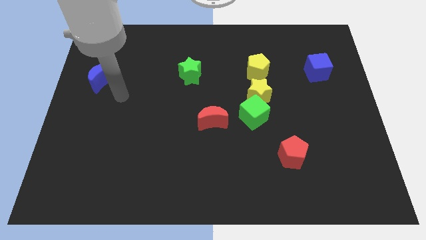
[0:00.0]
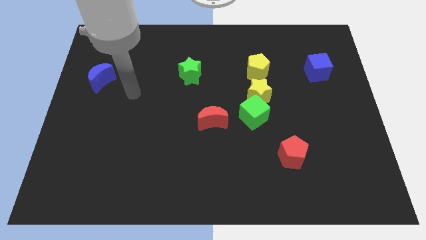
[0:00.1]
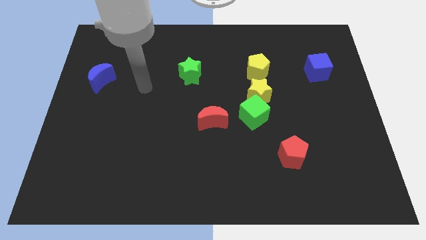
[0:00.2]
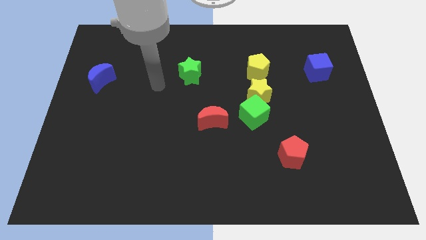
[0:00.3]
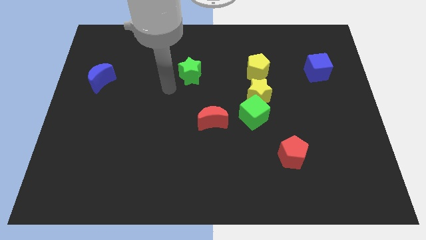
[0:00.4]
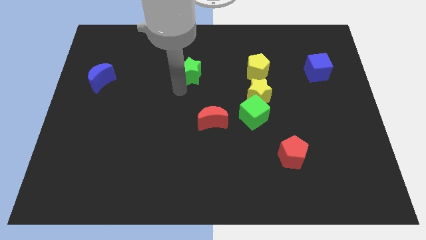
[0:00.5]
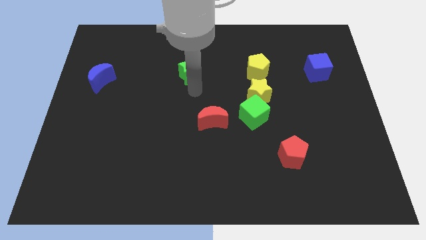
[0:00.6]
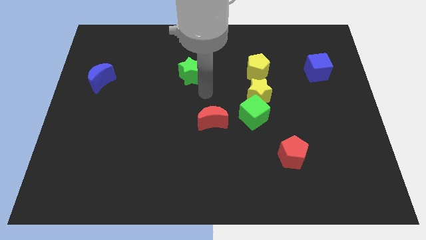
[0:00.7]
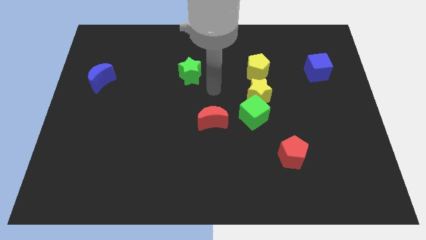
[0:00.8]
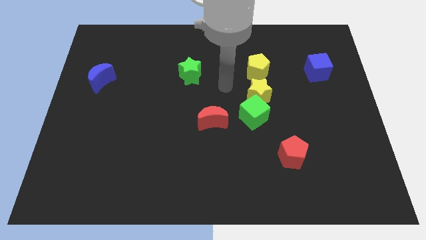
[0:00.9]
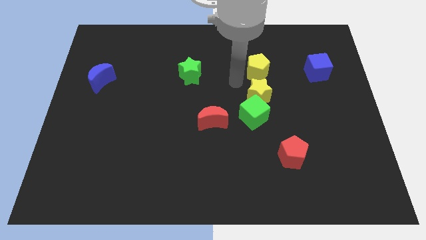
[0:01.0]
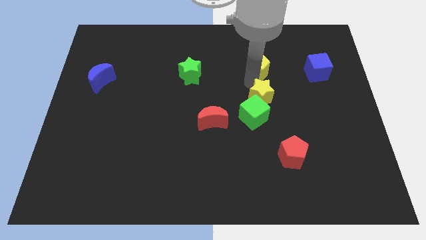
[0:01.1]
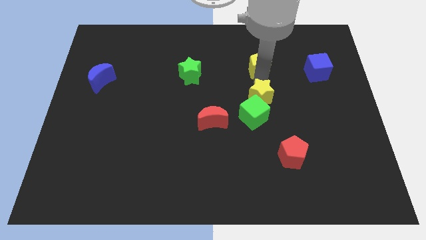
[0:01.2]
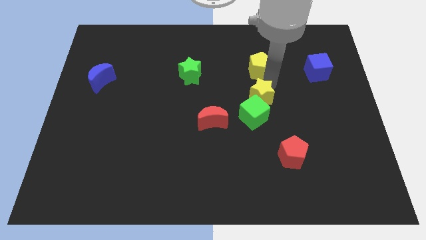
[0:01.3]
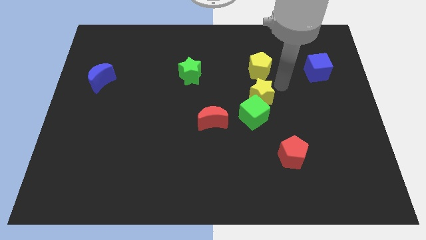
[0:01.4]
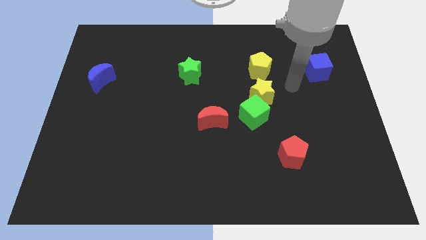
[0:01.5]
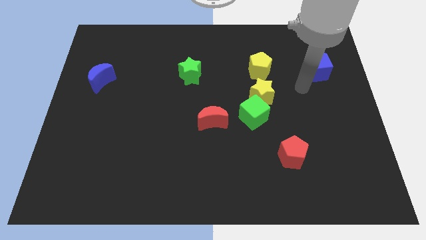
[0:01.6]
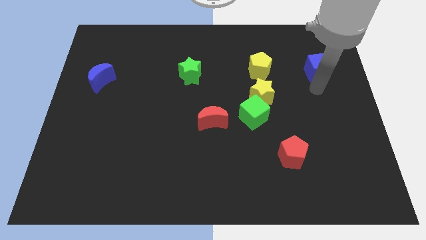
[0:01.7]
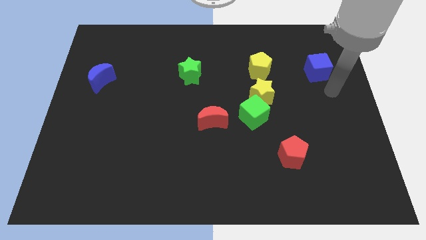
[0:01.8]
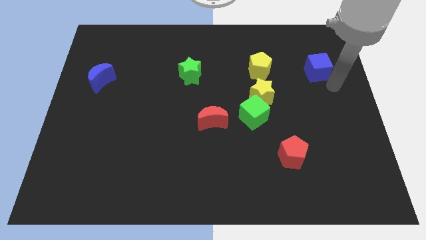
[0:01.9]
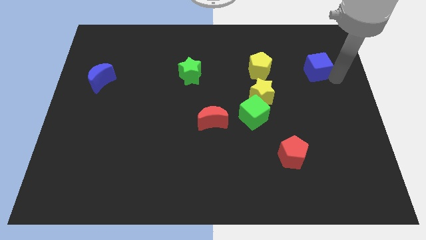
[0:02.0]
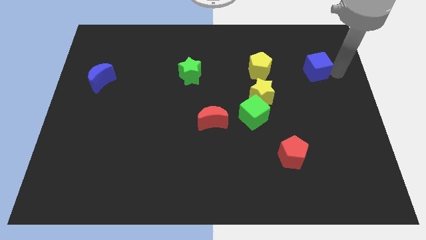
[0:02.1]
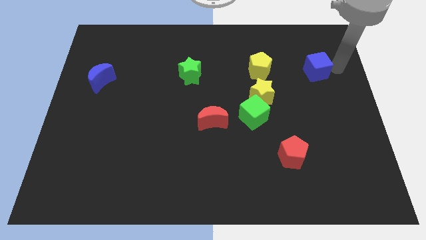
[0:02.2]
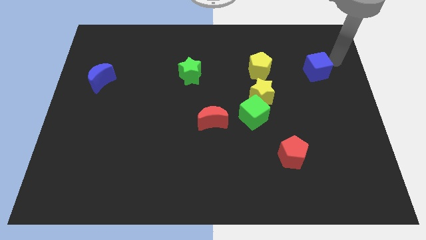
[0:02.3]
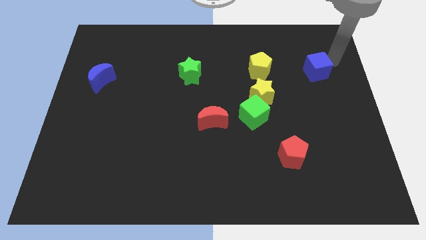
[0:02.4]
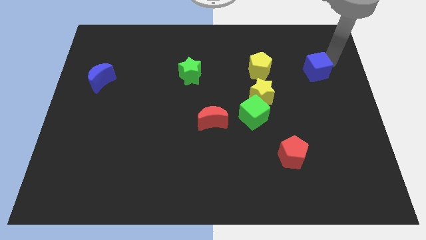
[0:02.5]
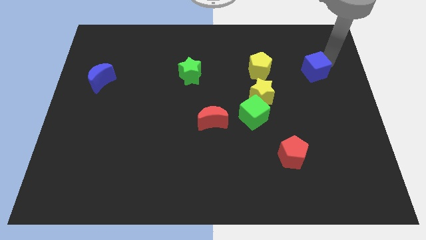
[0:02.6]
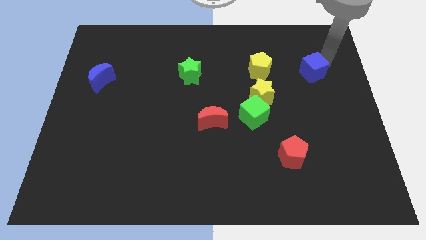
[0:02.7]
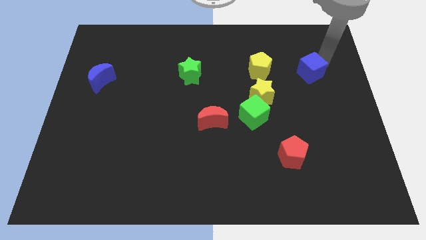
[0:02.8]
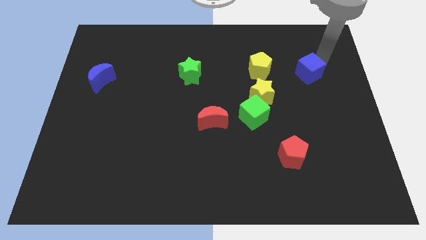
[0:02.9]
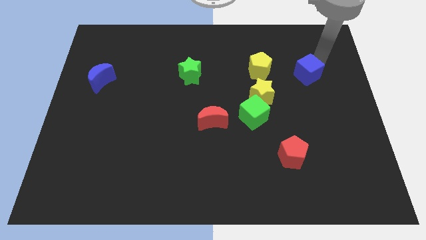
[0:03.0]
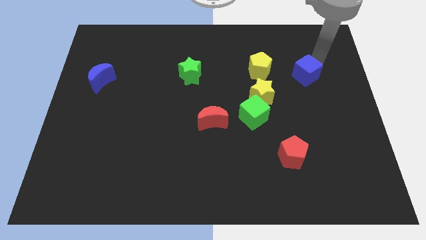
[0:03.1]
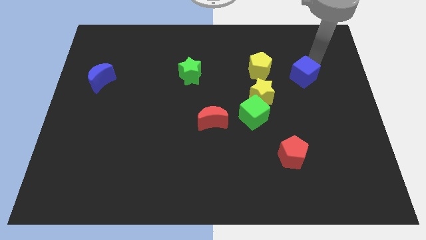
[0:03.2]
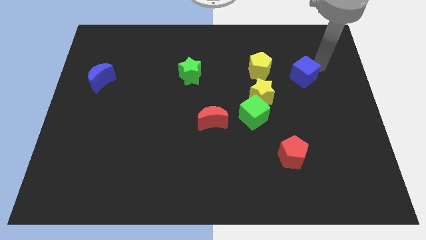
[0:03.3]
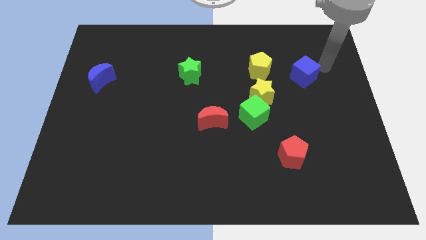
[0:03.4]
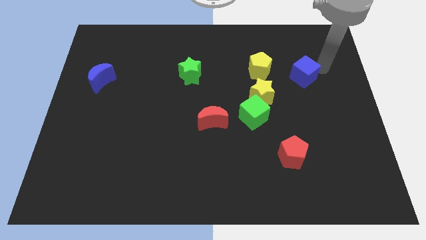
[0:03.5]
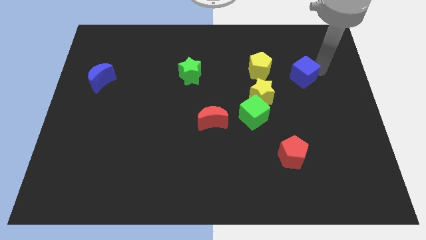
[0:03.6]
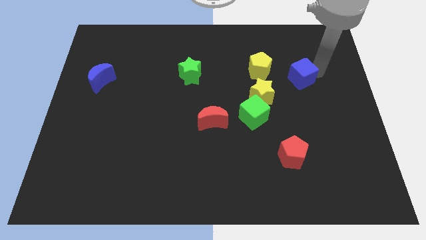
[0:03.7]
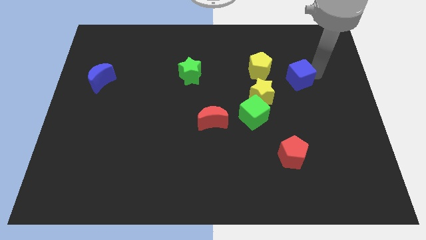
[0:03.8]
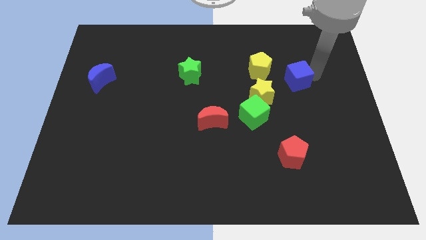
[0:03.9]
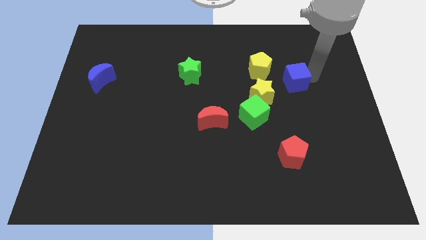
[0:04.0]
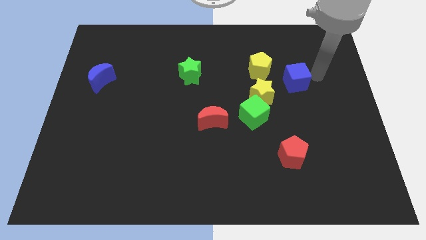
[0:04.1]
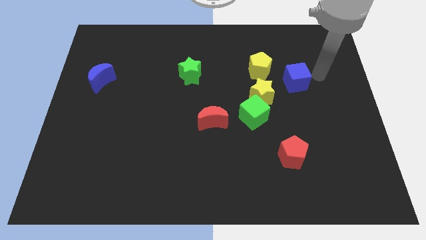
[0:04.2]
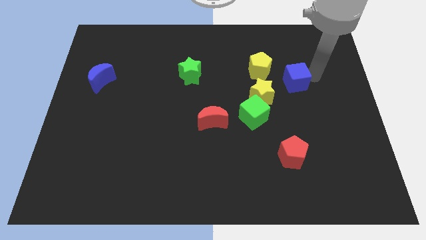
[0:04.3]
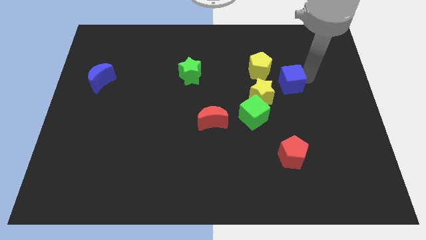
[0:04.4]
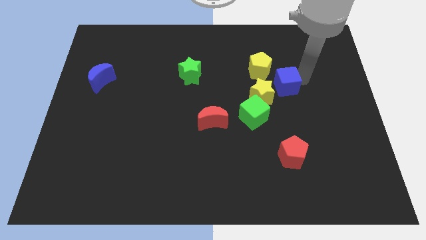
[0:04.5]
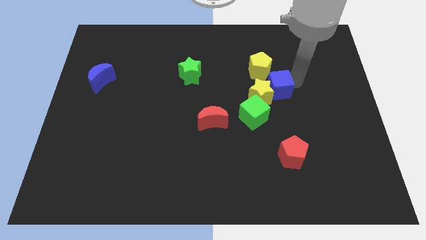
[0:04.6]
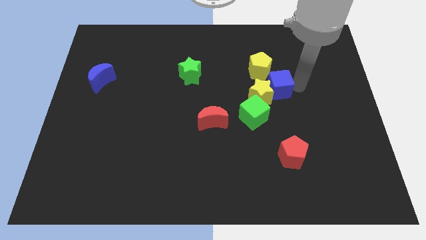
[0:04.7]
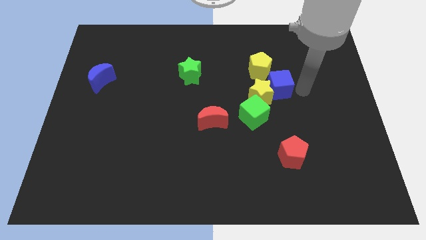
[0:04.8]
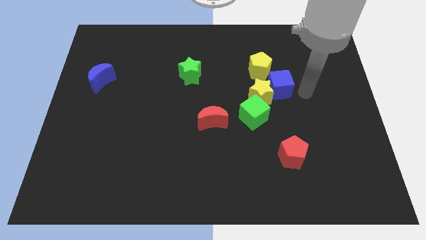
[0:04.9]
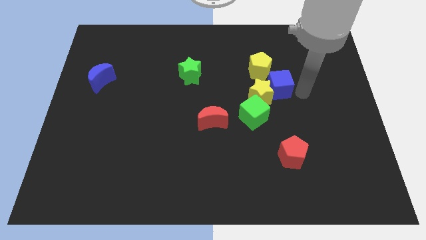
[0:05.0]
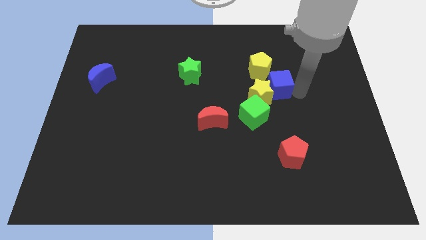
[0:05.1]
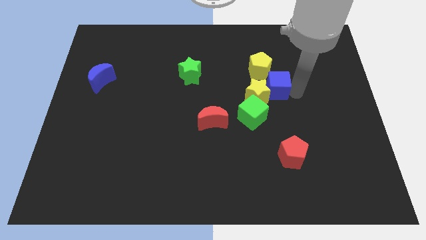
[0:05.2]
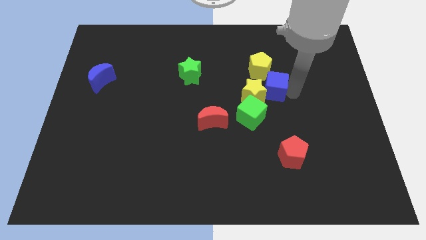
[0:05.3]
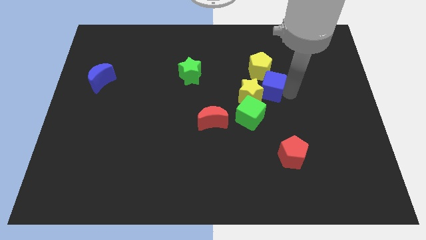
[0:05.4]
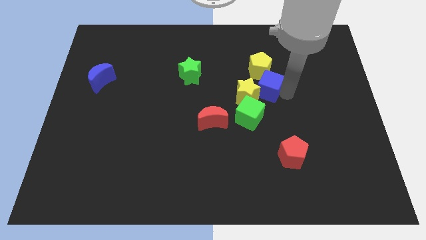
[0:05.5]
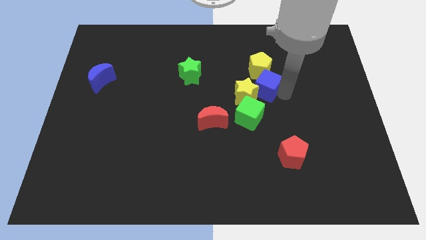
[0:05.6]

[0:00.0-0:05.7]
push the blue cube to the top of the green cube

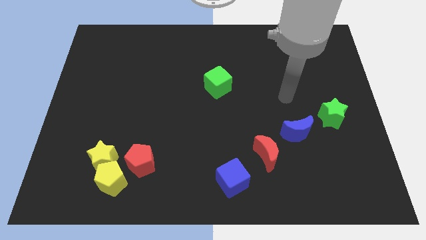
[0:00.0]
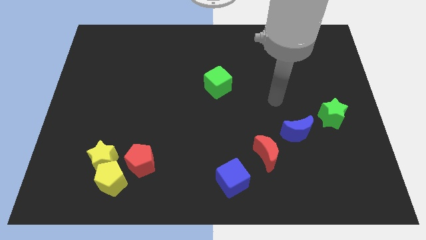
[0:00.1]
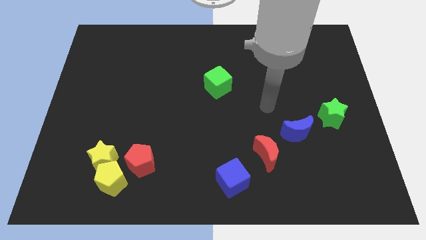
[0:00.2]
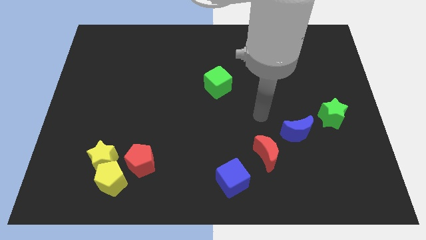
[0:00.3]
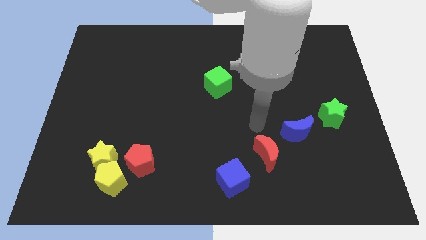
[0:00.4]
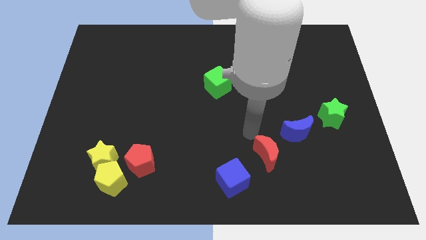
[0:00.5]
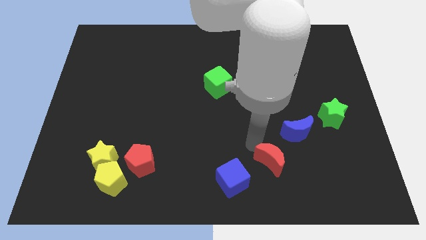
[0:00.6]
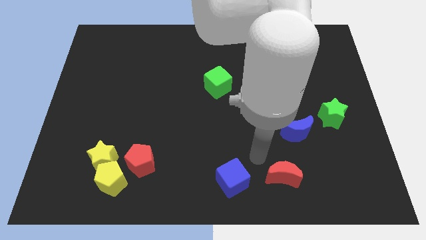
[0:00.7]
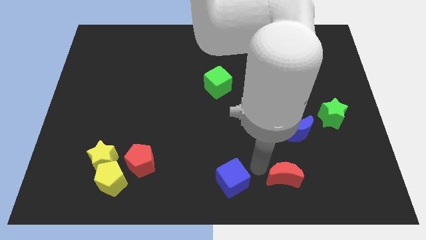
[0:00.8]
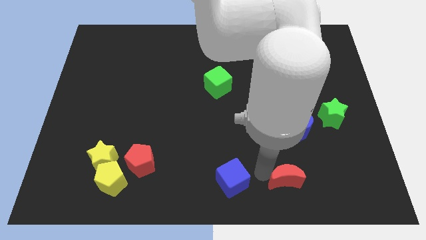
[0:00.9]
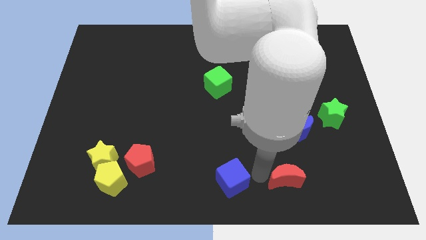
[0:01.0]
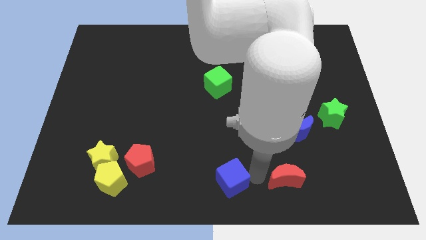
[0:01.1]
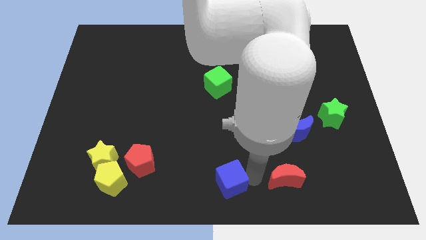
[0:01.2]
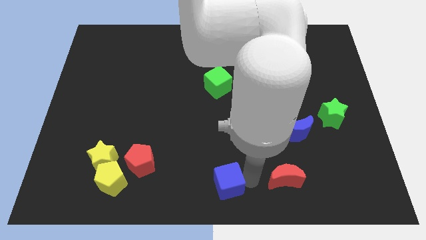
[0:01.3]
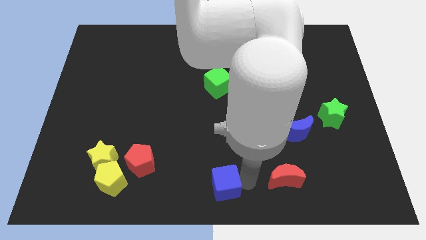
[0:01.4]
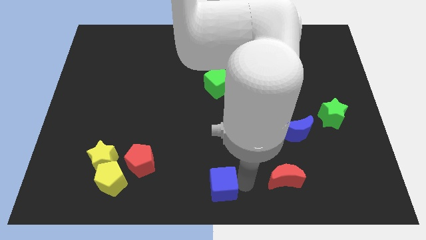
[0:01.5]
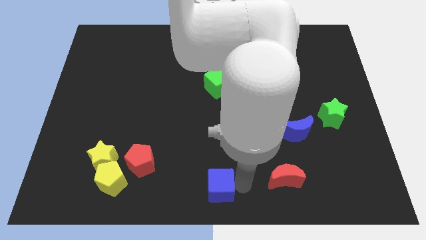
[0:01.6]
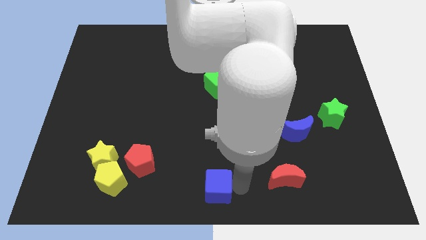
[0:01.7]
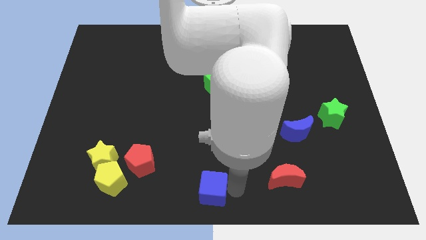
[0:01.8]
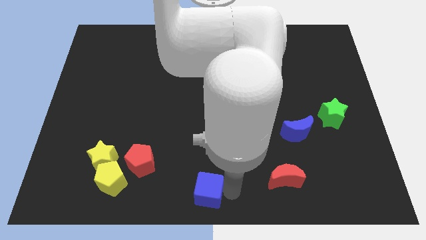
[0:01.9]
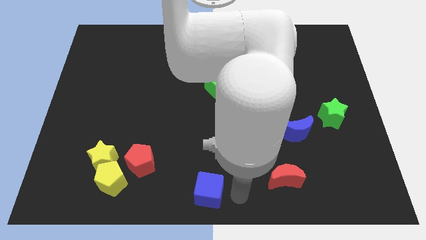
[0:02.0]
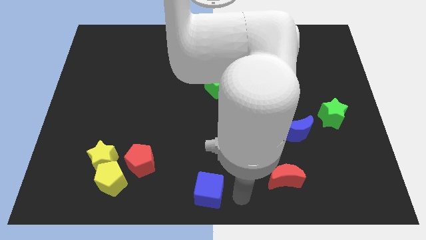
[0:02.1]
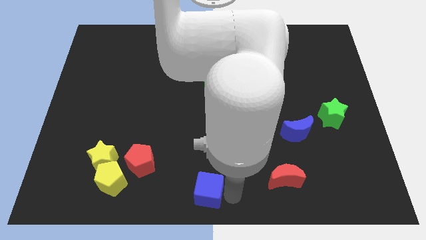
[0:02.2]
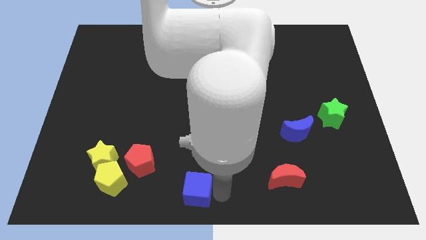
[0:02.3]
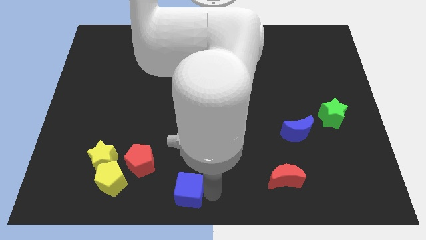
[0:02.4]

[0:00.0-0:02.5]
push the blue cube diagonally down and to the right of the red pentagon
